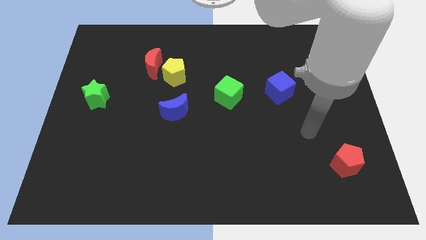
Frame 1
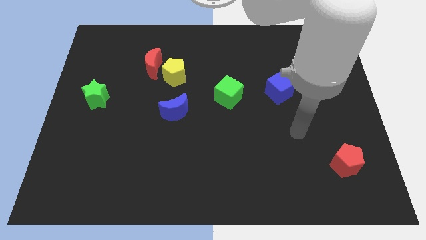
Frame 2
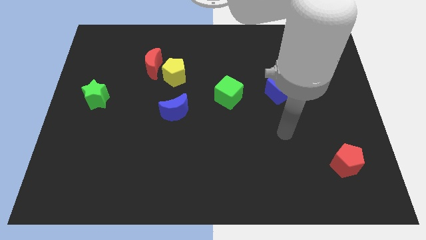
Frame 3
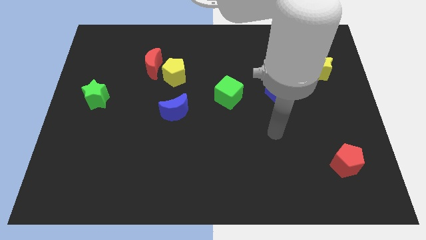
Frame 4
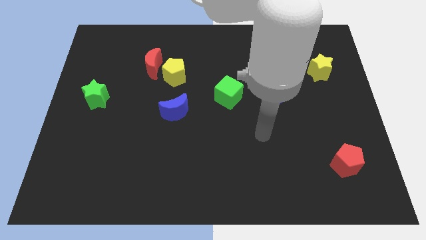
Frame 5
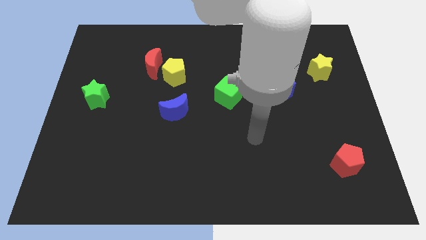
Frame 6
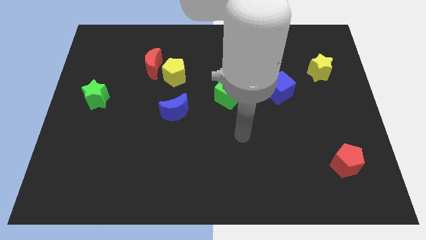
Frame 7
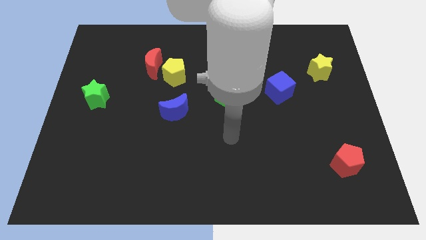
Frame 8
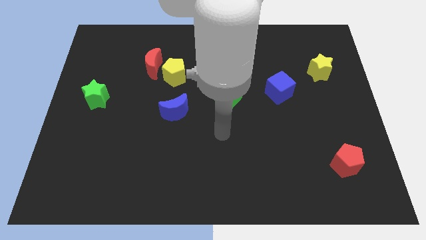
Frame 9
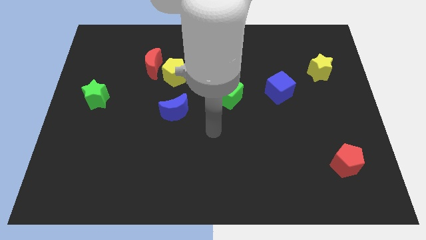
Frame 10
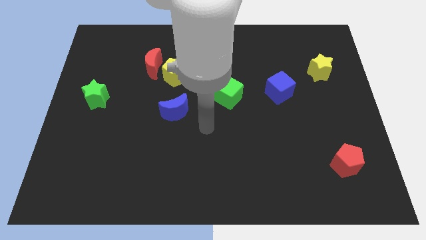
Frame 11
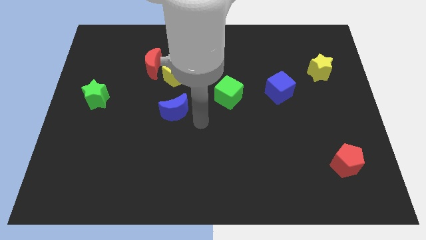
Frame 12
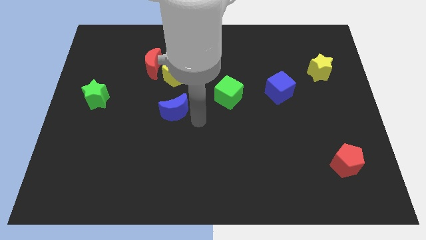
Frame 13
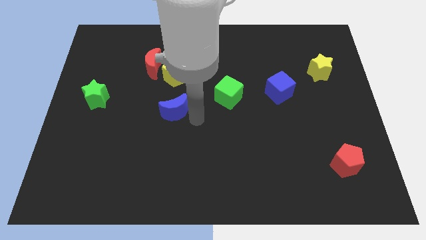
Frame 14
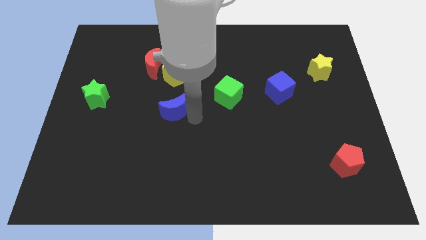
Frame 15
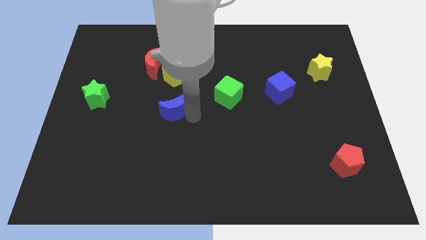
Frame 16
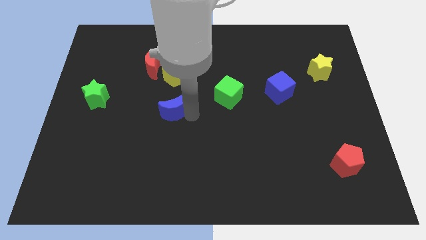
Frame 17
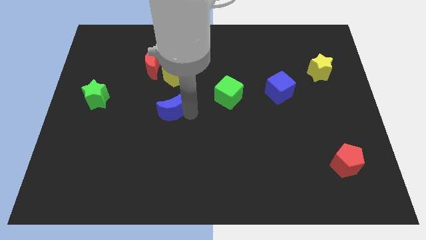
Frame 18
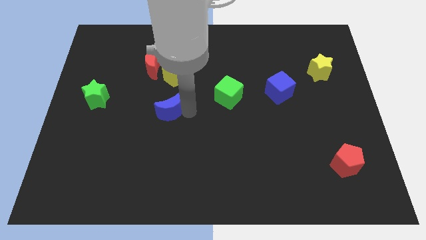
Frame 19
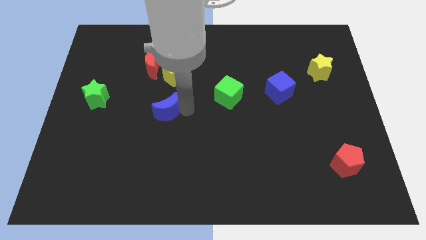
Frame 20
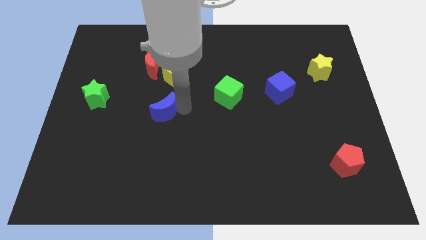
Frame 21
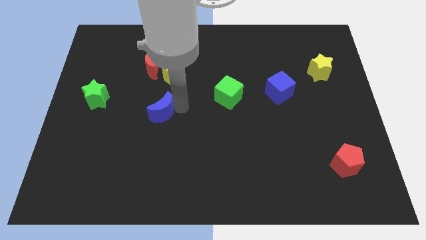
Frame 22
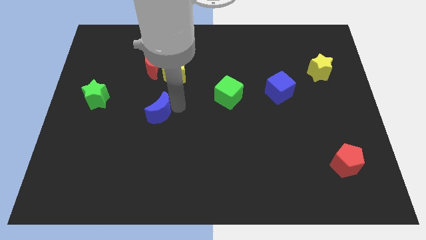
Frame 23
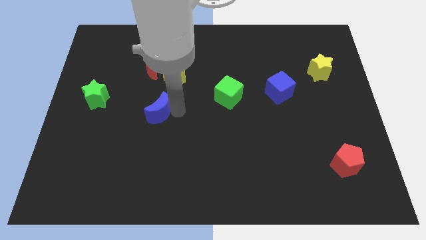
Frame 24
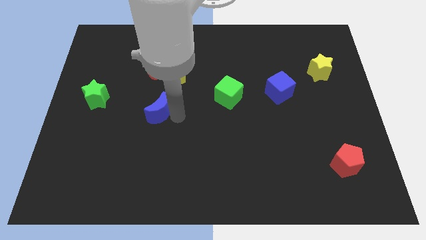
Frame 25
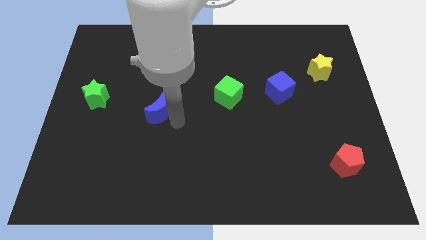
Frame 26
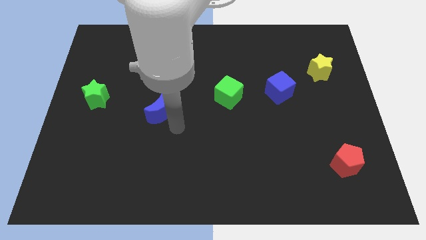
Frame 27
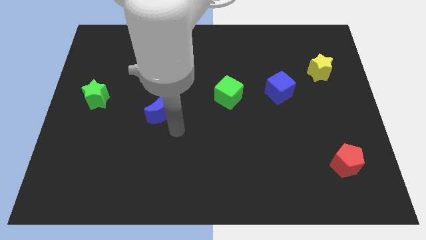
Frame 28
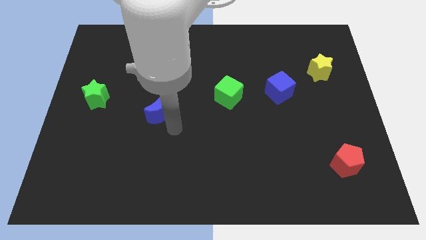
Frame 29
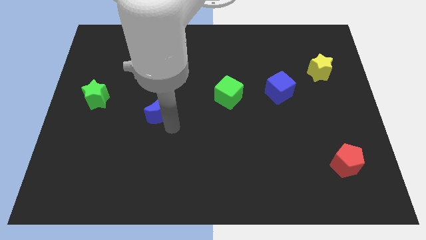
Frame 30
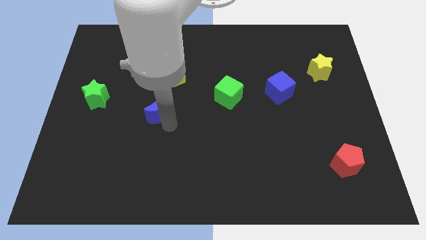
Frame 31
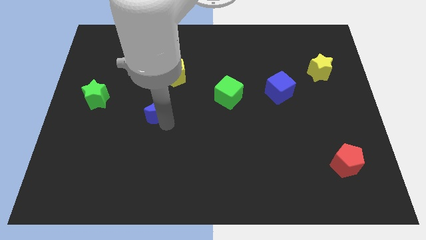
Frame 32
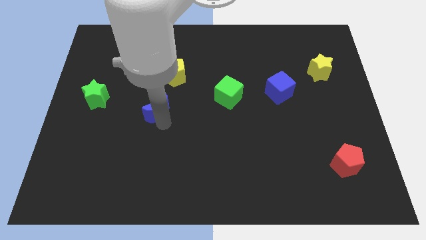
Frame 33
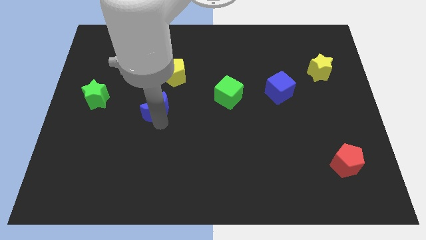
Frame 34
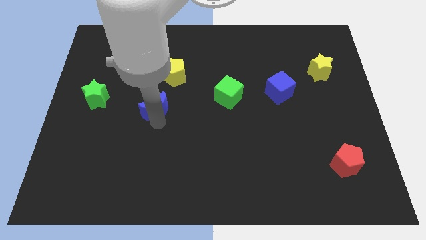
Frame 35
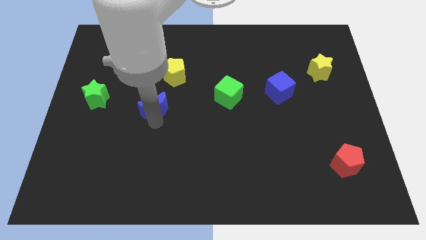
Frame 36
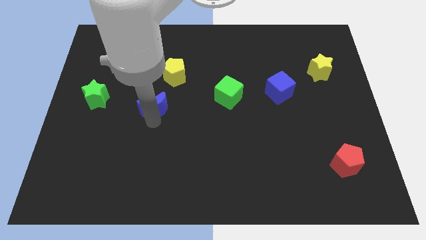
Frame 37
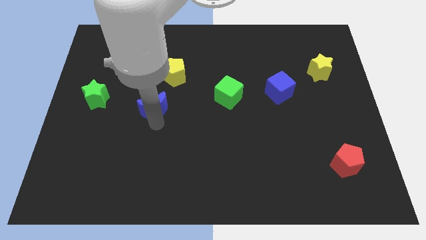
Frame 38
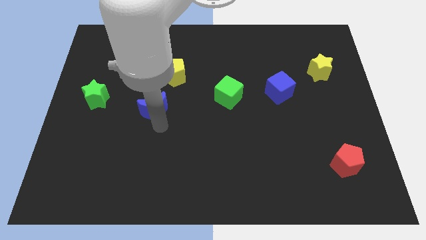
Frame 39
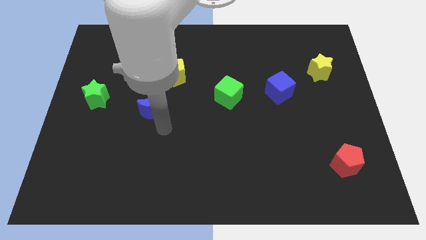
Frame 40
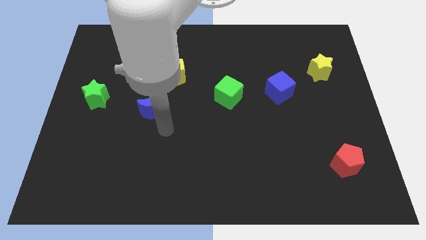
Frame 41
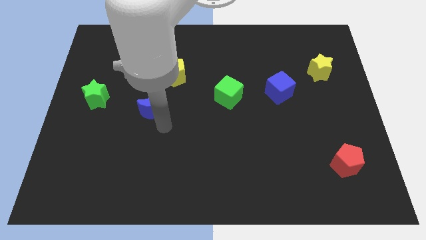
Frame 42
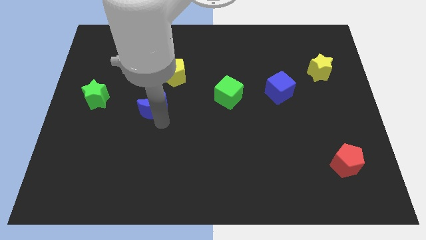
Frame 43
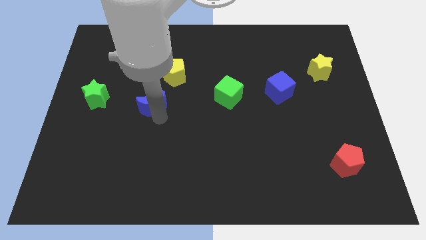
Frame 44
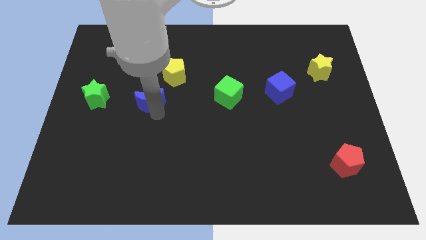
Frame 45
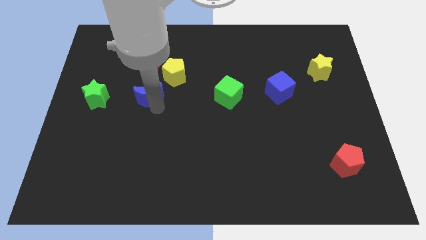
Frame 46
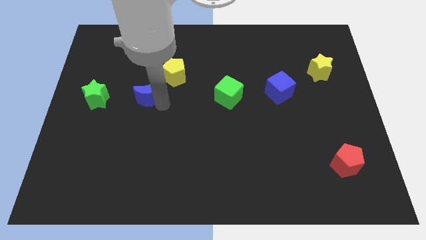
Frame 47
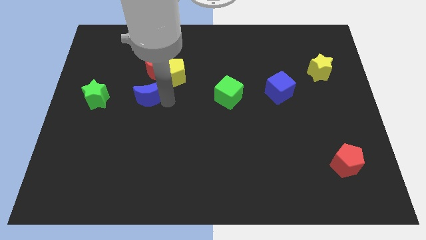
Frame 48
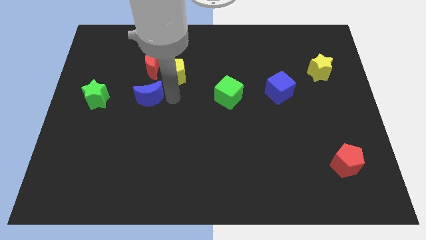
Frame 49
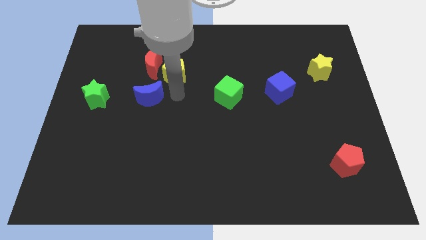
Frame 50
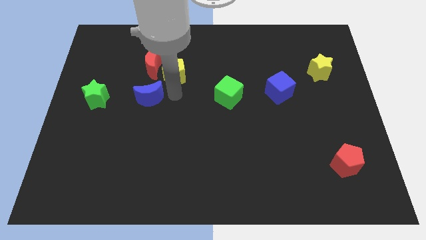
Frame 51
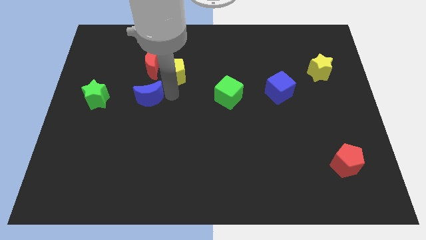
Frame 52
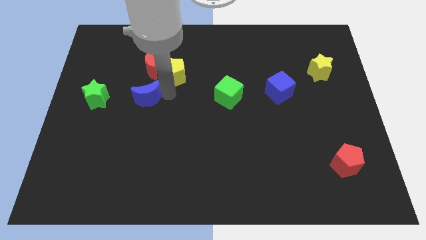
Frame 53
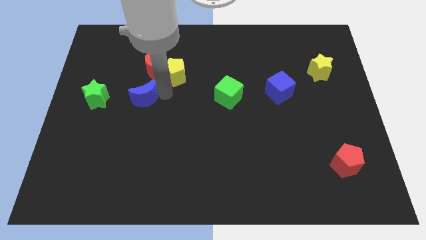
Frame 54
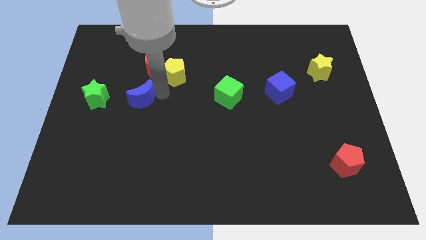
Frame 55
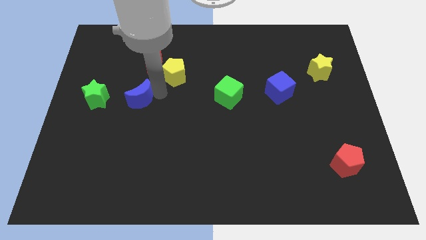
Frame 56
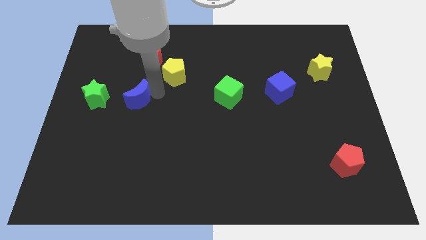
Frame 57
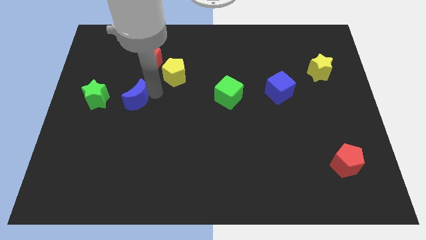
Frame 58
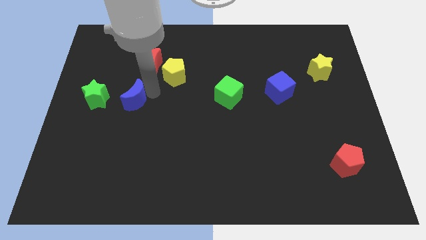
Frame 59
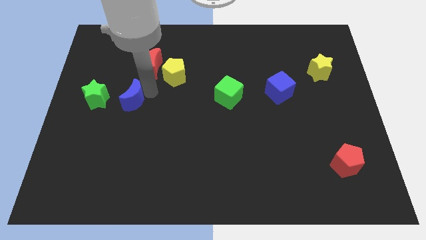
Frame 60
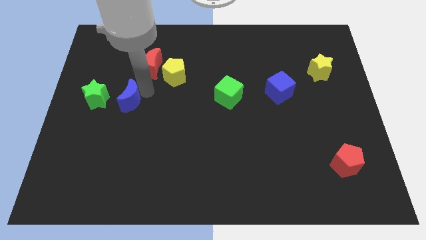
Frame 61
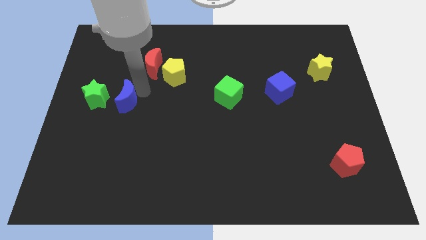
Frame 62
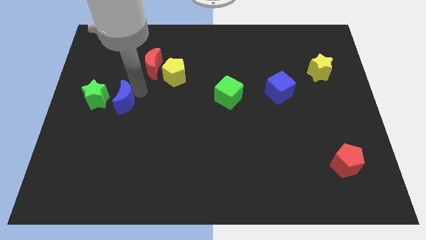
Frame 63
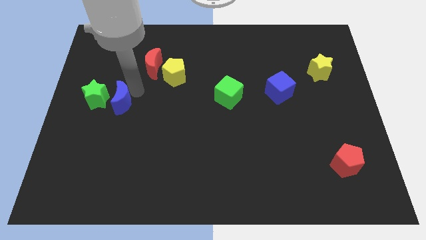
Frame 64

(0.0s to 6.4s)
slide the blue moon close to the green star
